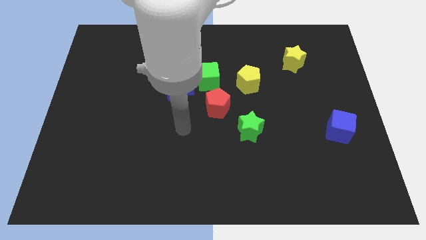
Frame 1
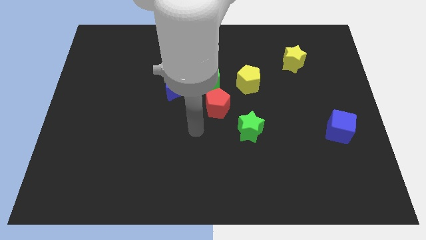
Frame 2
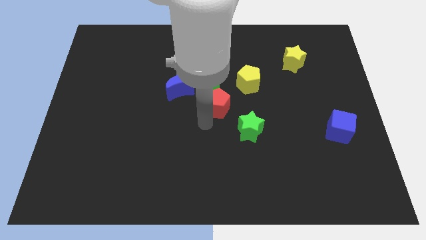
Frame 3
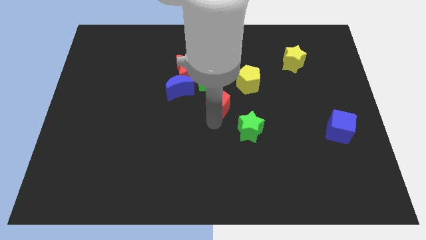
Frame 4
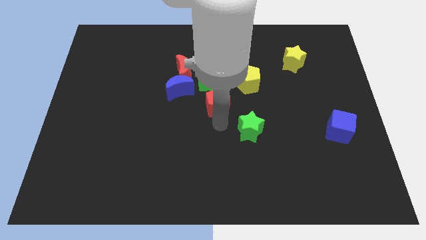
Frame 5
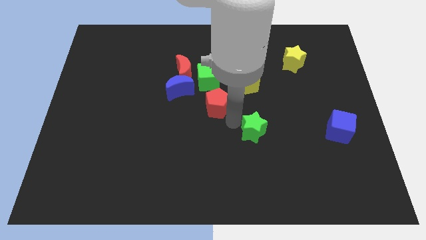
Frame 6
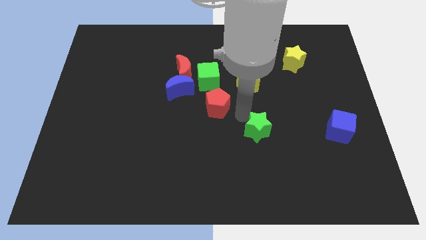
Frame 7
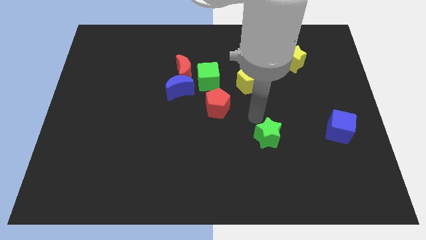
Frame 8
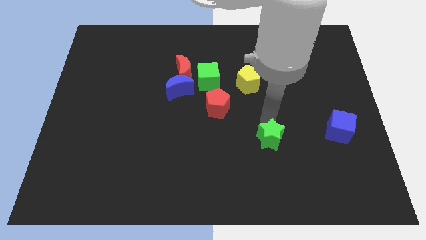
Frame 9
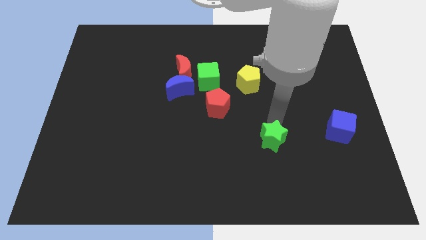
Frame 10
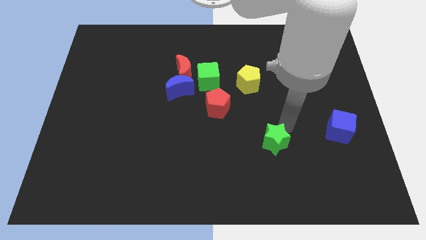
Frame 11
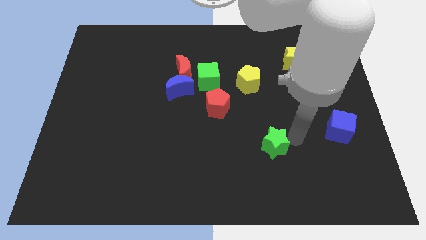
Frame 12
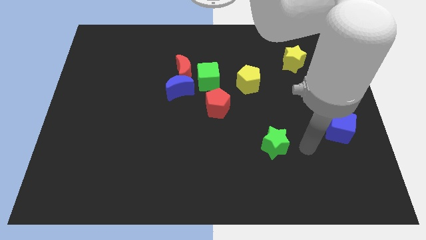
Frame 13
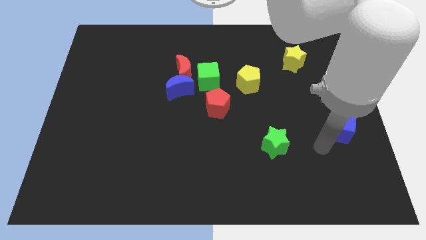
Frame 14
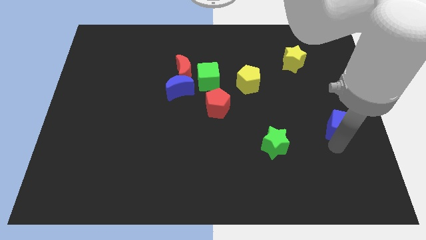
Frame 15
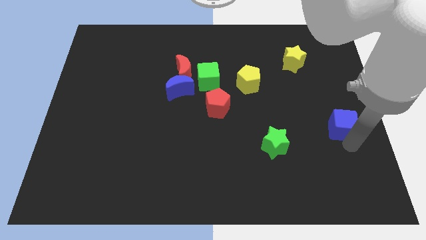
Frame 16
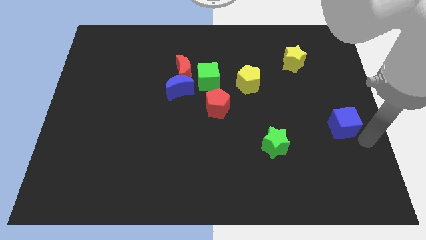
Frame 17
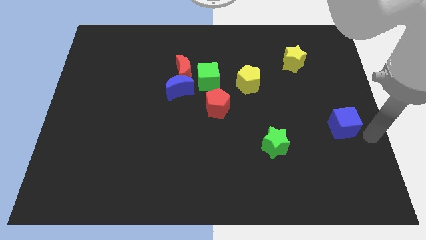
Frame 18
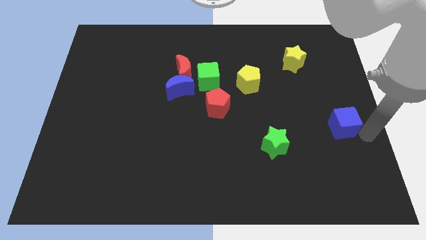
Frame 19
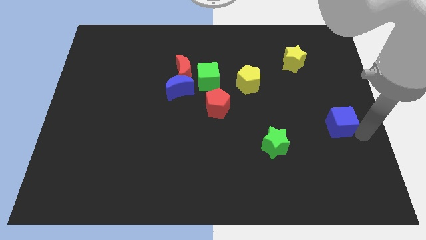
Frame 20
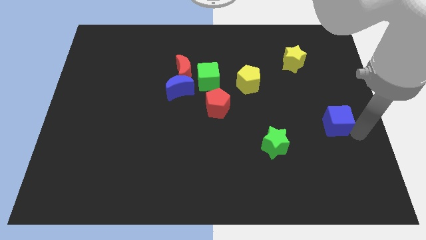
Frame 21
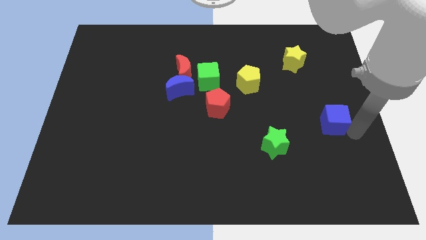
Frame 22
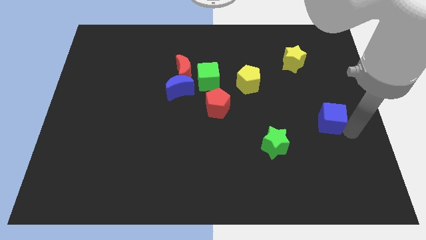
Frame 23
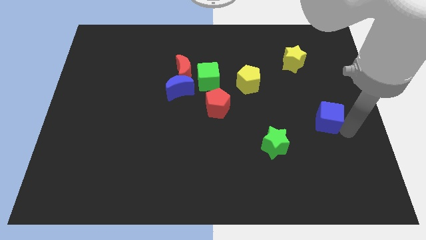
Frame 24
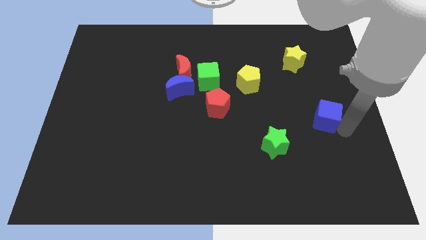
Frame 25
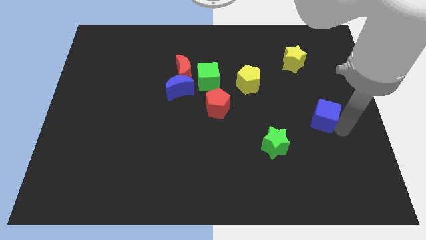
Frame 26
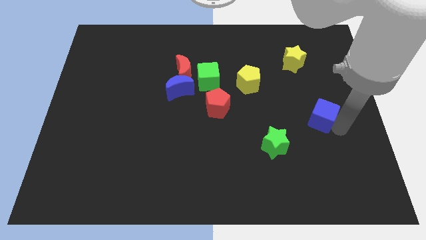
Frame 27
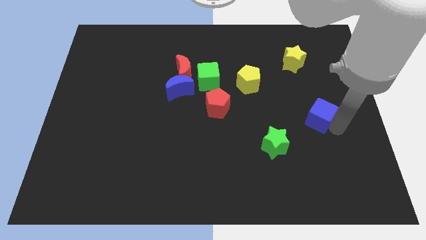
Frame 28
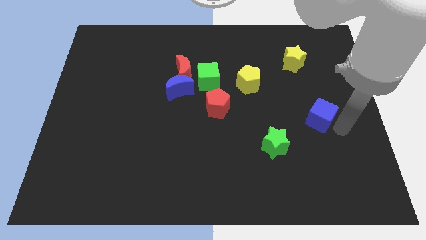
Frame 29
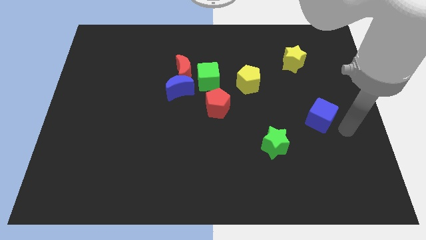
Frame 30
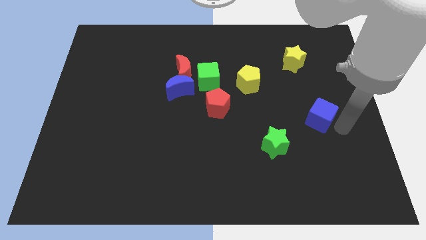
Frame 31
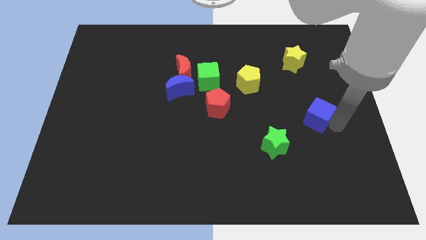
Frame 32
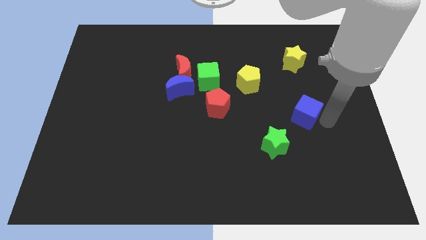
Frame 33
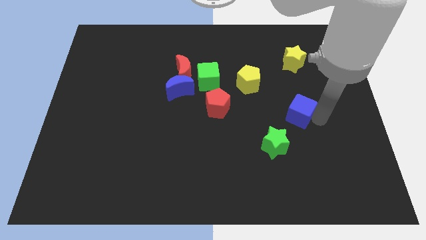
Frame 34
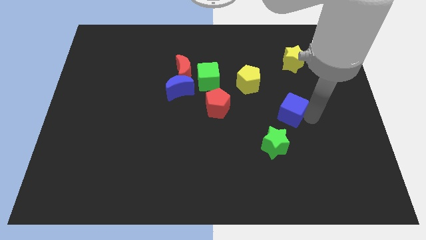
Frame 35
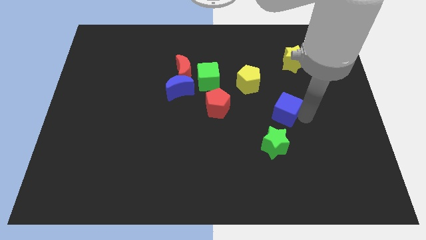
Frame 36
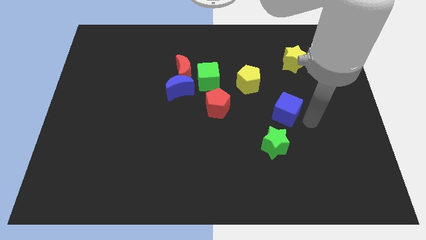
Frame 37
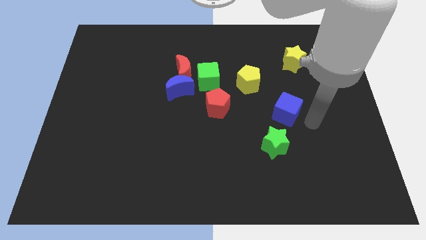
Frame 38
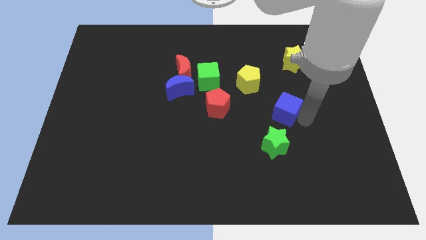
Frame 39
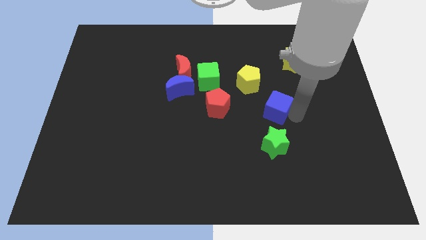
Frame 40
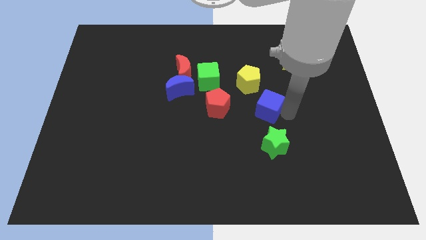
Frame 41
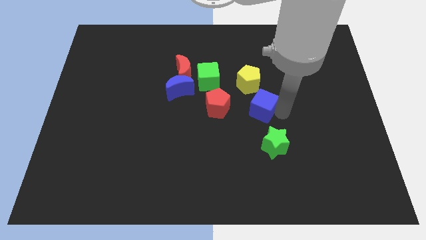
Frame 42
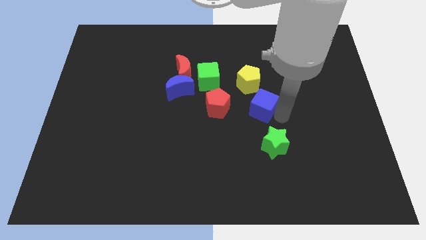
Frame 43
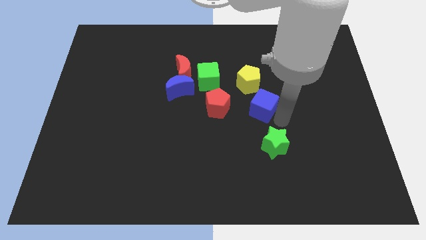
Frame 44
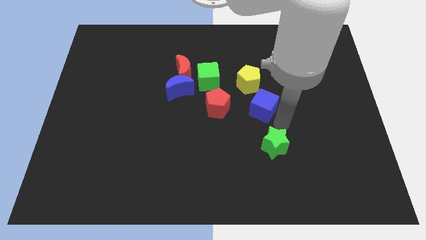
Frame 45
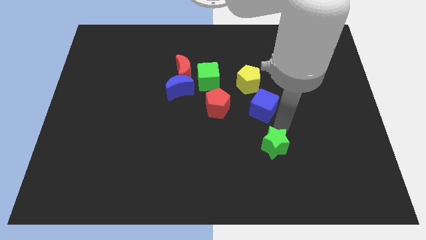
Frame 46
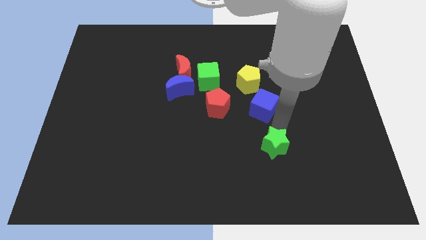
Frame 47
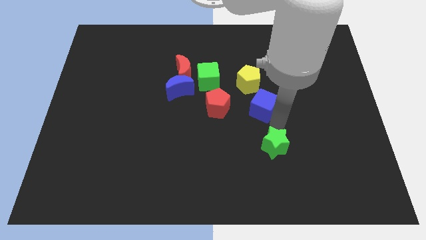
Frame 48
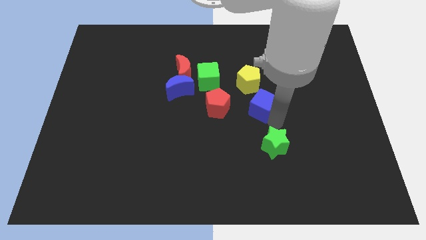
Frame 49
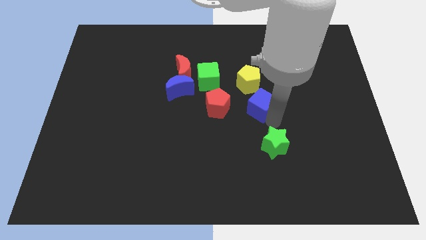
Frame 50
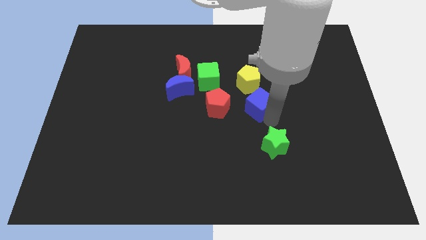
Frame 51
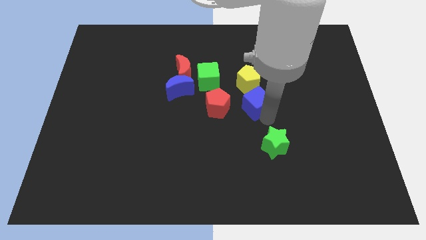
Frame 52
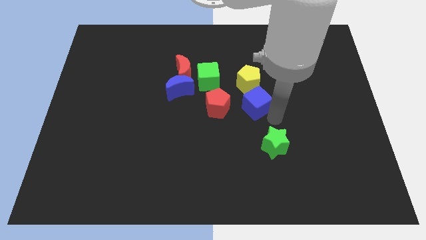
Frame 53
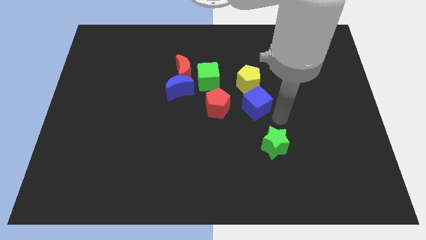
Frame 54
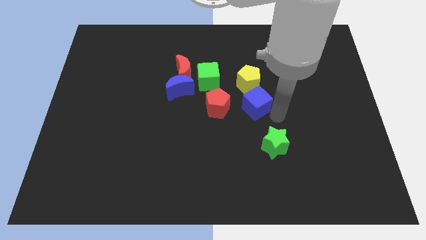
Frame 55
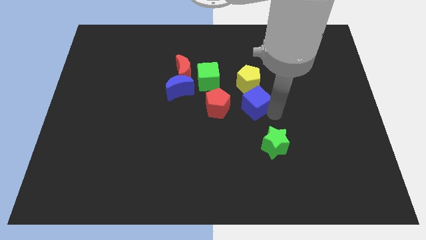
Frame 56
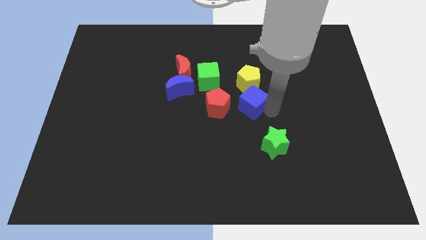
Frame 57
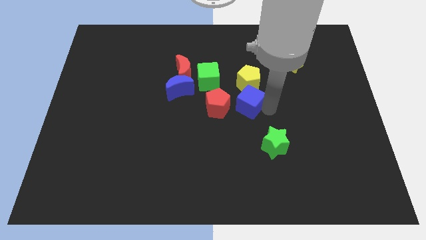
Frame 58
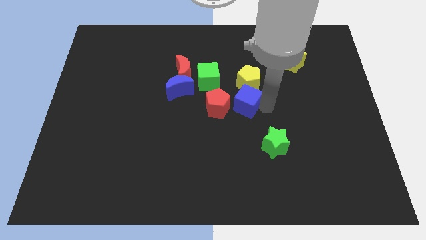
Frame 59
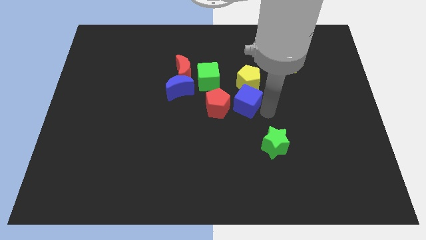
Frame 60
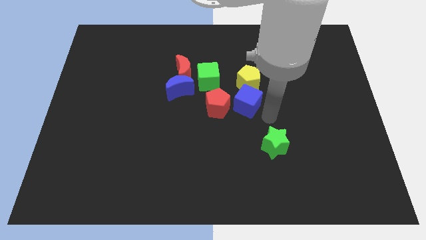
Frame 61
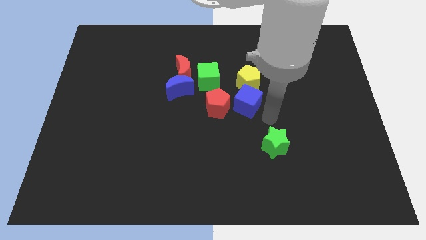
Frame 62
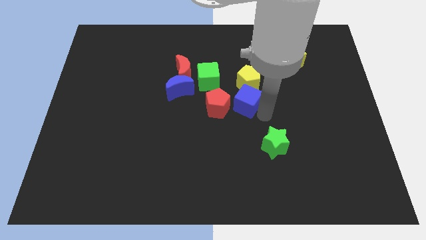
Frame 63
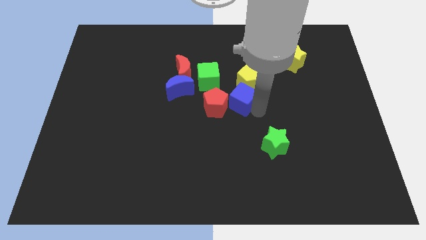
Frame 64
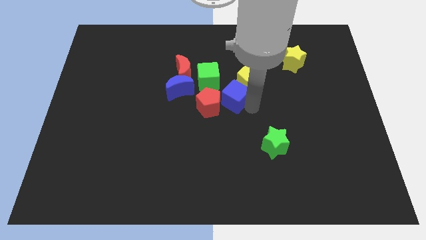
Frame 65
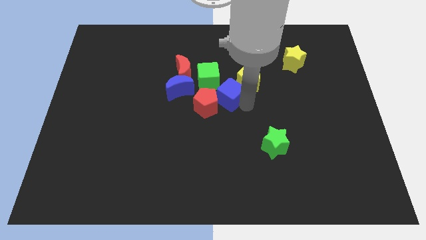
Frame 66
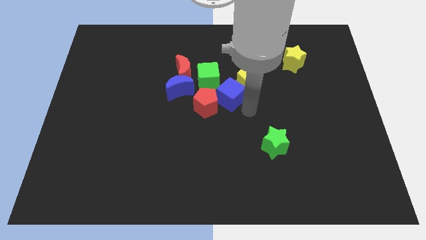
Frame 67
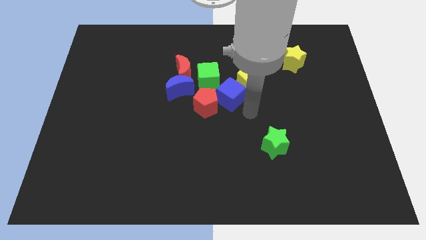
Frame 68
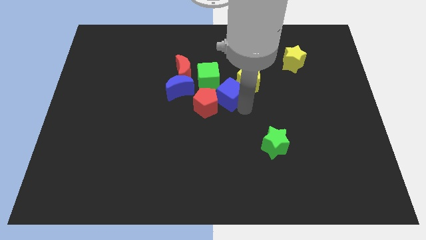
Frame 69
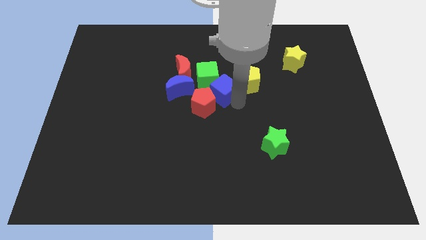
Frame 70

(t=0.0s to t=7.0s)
put the blue cube towards the green cube

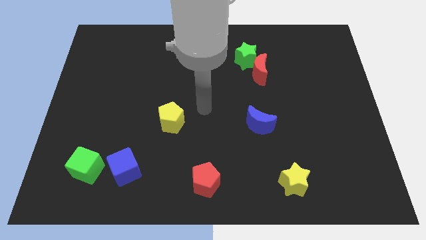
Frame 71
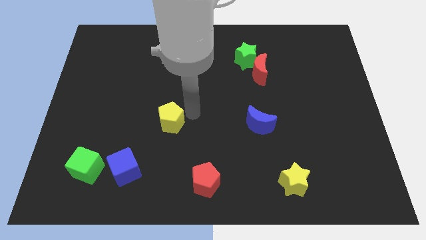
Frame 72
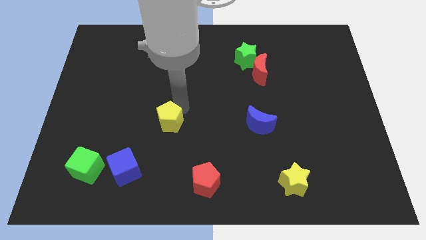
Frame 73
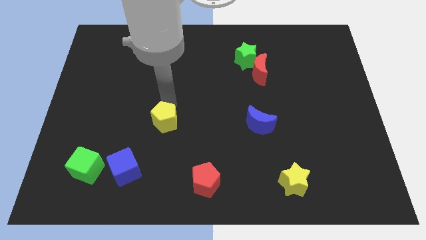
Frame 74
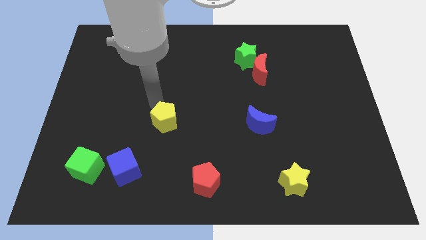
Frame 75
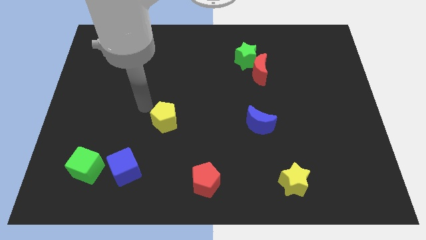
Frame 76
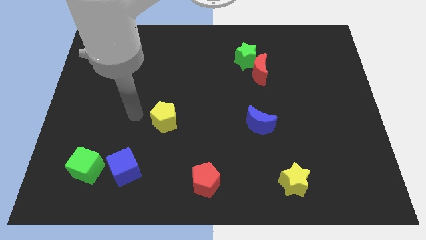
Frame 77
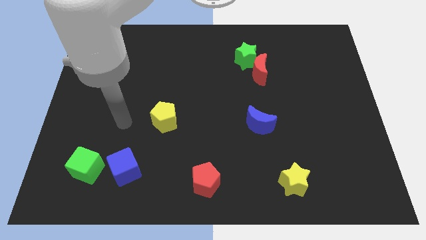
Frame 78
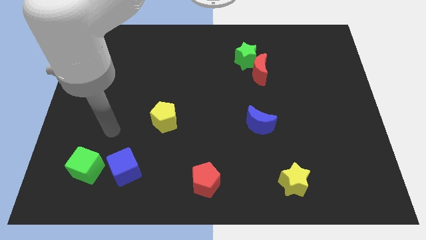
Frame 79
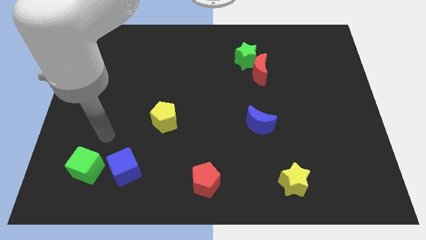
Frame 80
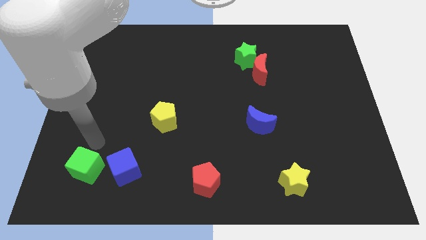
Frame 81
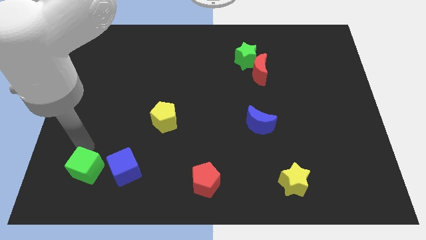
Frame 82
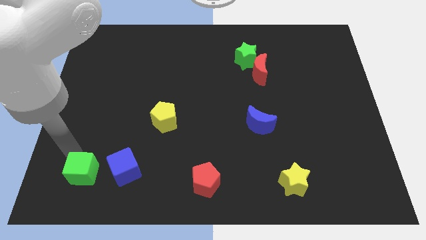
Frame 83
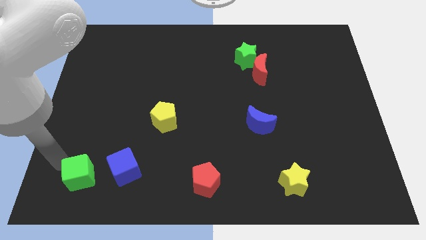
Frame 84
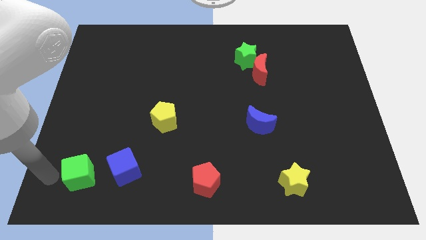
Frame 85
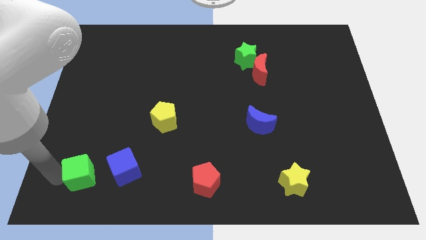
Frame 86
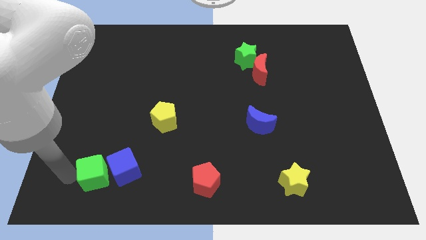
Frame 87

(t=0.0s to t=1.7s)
slide the green cube next to the blue cube
